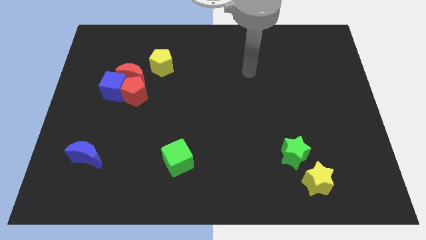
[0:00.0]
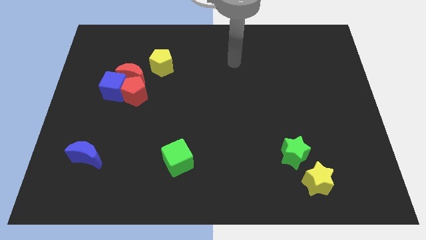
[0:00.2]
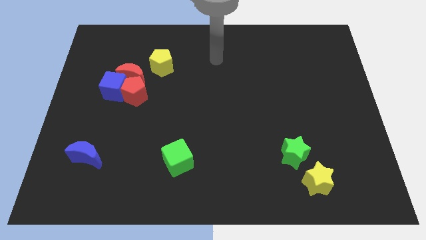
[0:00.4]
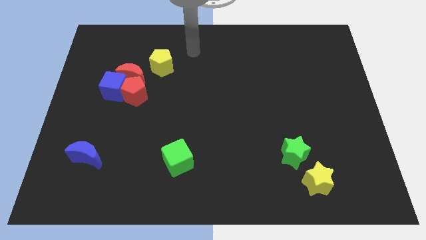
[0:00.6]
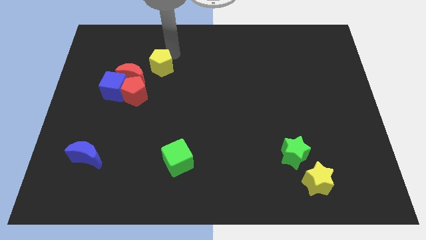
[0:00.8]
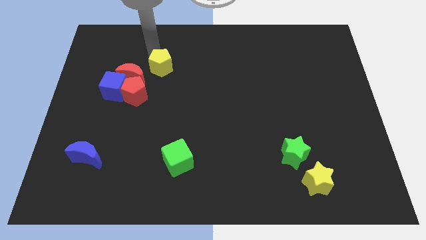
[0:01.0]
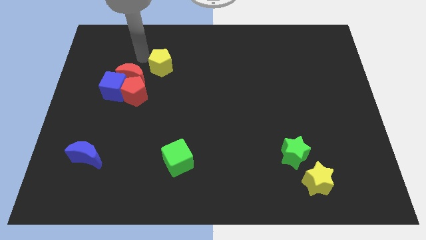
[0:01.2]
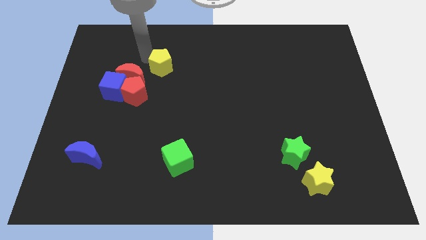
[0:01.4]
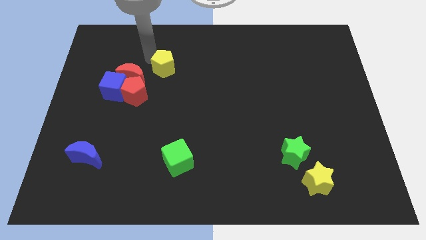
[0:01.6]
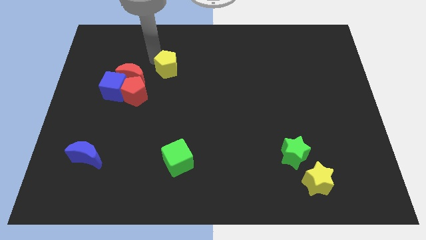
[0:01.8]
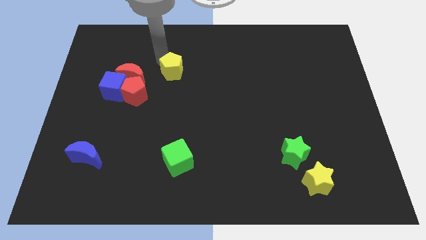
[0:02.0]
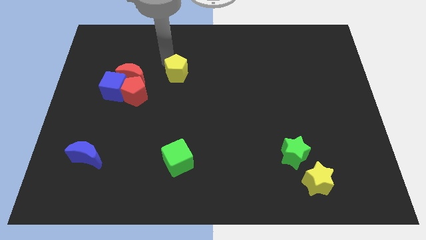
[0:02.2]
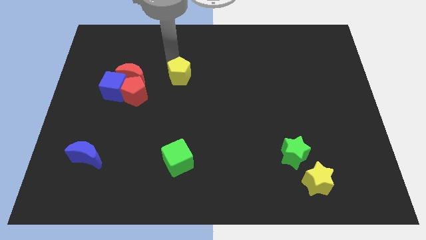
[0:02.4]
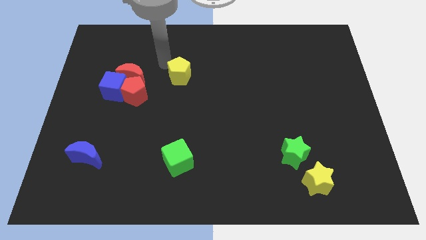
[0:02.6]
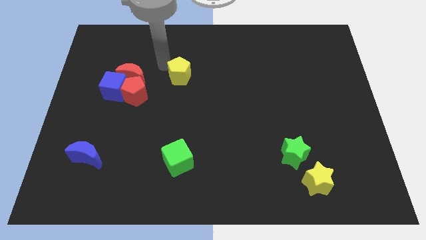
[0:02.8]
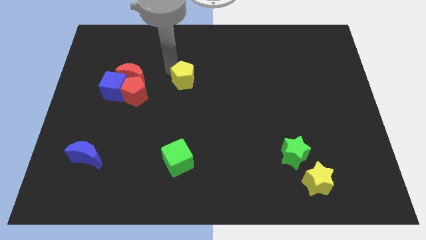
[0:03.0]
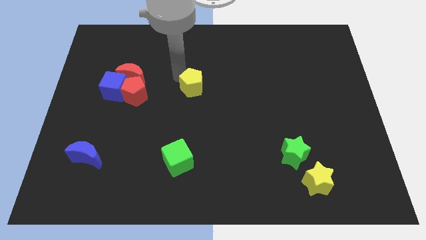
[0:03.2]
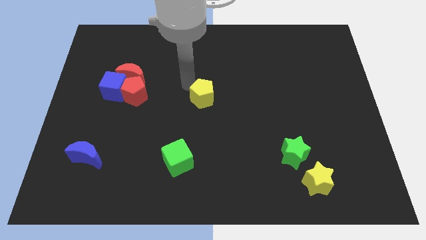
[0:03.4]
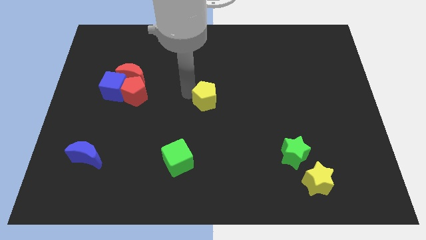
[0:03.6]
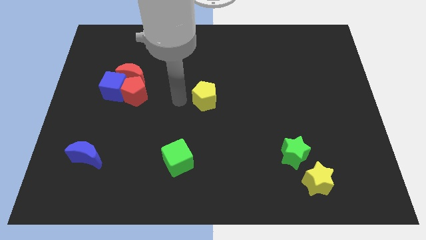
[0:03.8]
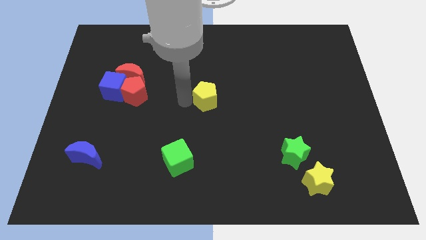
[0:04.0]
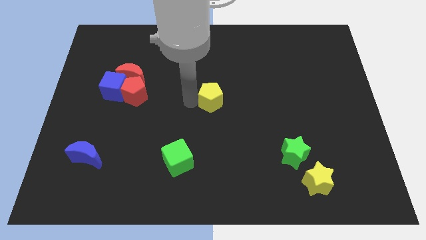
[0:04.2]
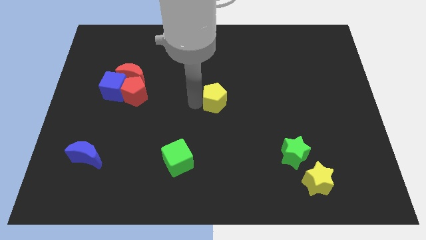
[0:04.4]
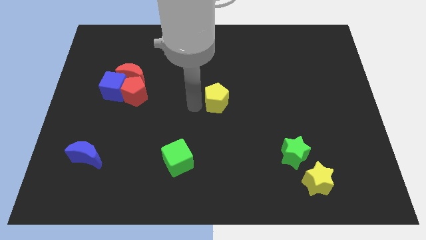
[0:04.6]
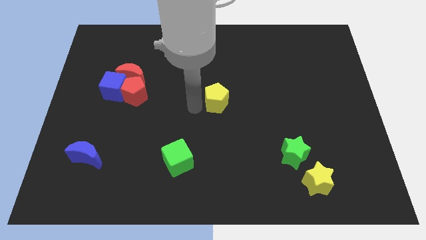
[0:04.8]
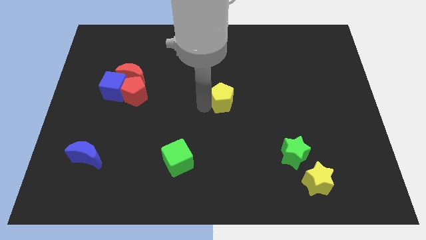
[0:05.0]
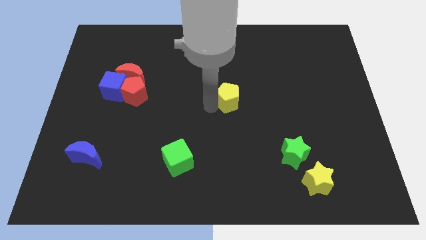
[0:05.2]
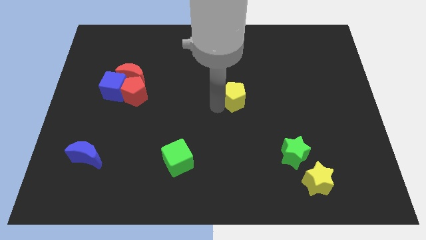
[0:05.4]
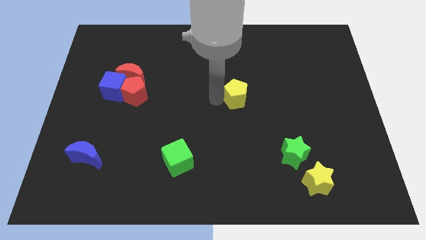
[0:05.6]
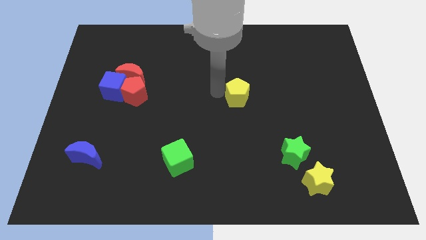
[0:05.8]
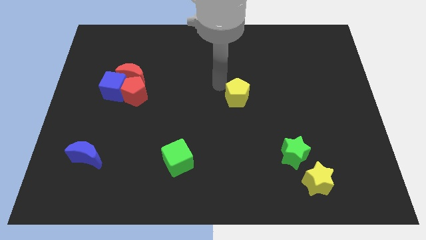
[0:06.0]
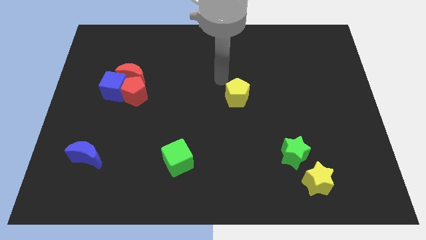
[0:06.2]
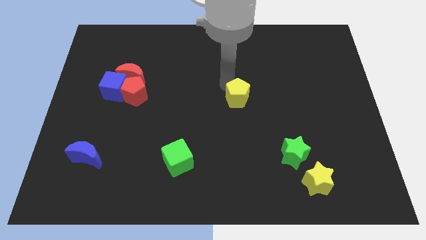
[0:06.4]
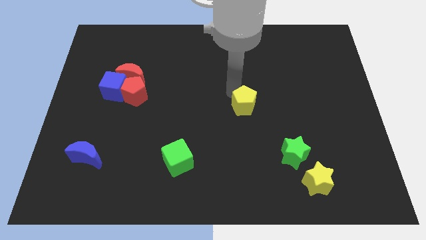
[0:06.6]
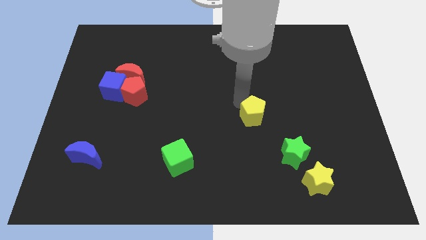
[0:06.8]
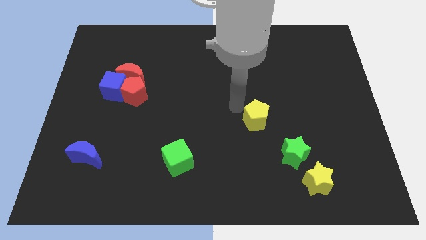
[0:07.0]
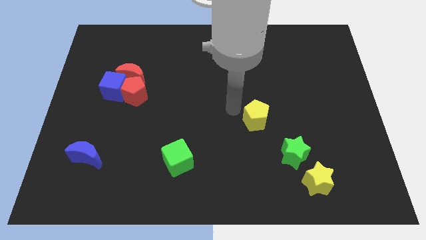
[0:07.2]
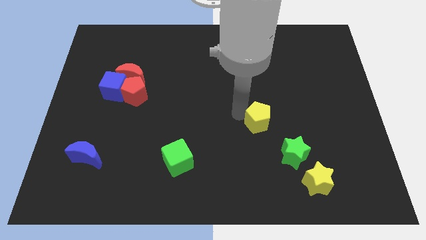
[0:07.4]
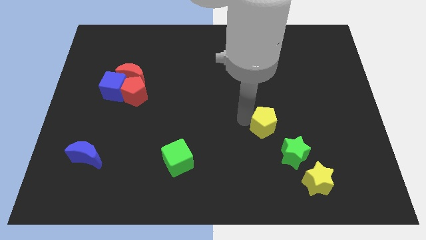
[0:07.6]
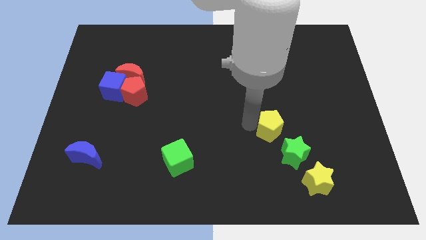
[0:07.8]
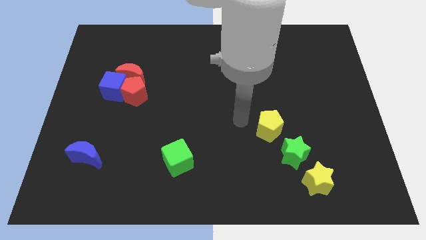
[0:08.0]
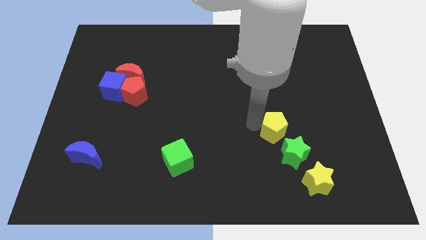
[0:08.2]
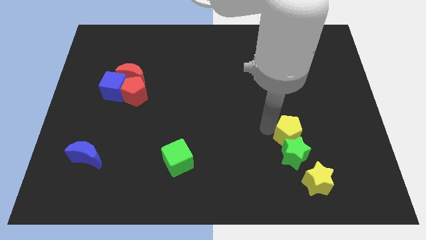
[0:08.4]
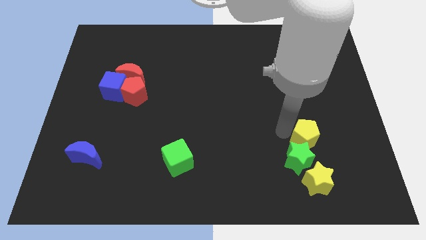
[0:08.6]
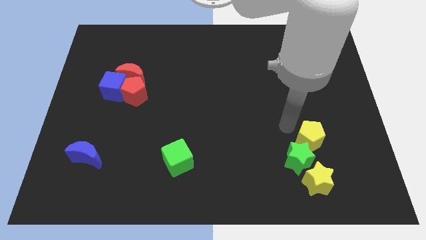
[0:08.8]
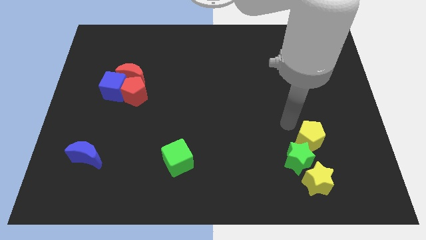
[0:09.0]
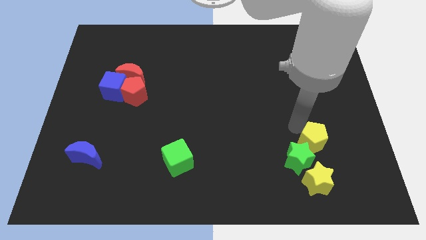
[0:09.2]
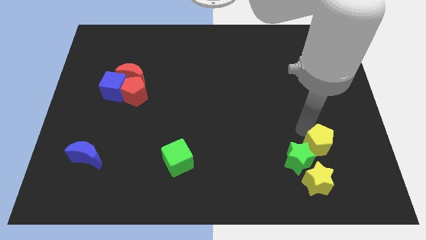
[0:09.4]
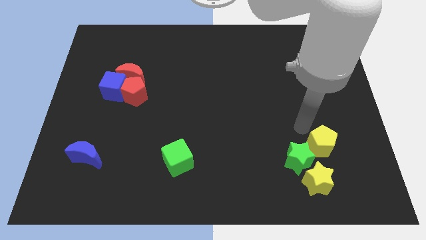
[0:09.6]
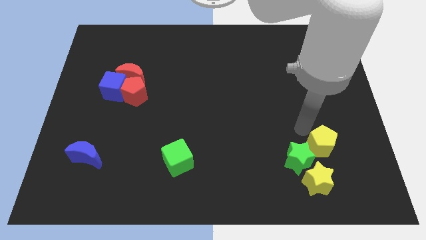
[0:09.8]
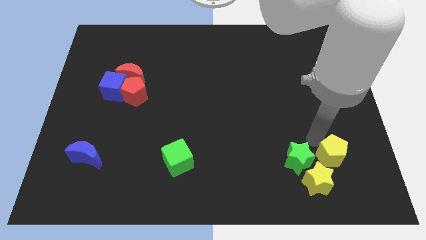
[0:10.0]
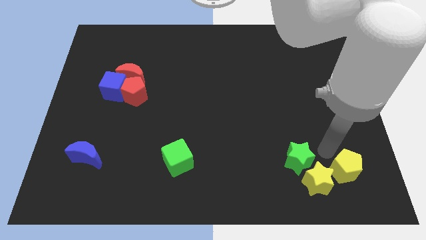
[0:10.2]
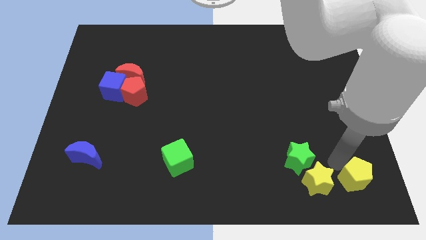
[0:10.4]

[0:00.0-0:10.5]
push the yellow pentagon to the bottom right corner
